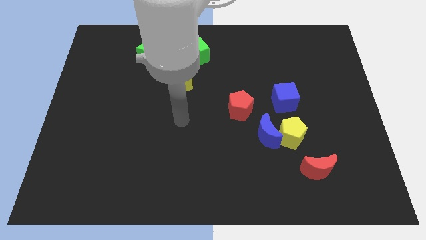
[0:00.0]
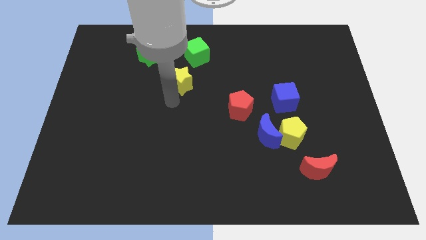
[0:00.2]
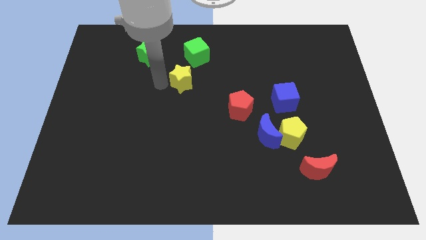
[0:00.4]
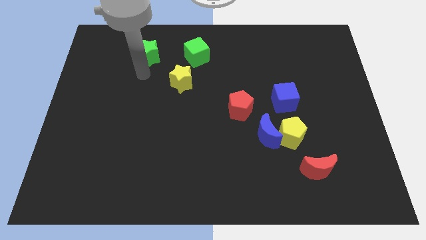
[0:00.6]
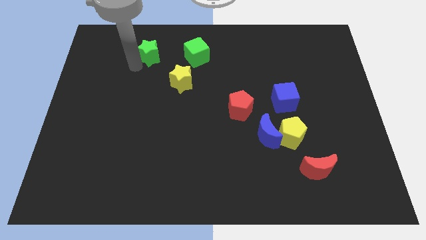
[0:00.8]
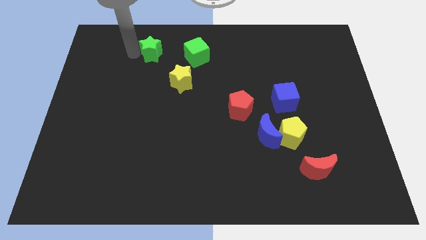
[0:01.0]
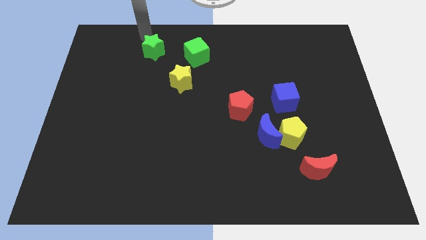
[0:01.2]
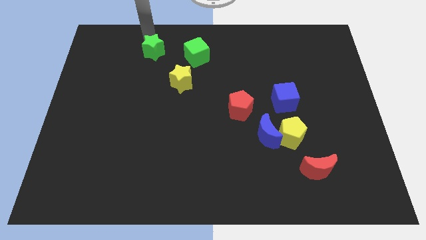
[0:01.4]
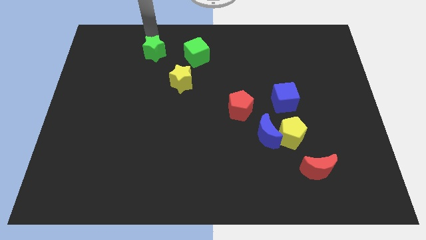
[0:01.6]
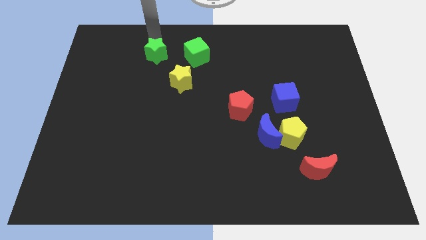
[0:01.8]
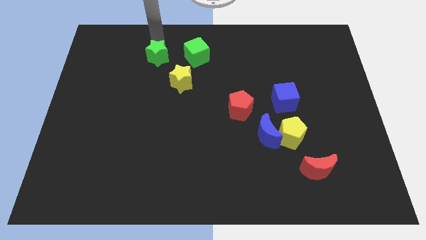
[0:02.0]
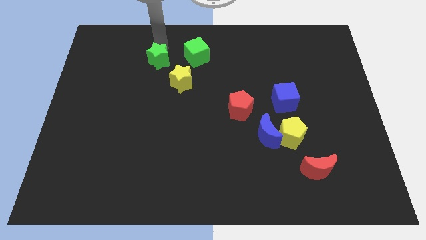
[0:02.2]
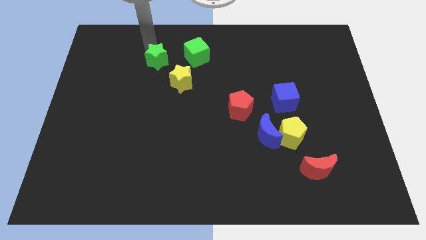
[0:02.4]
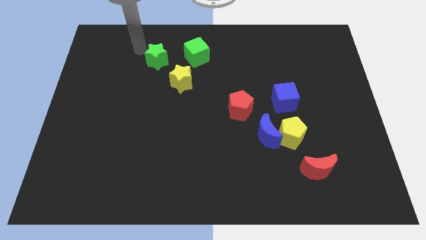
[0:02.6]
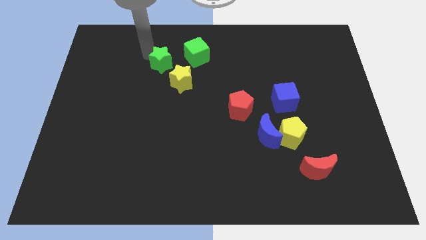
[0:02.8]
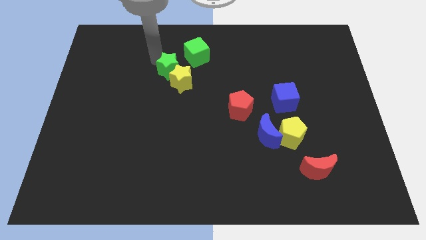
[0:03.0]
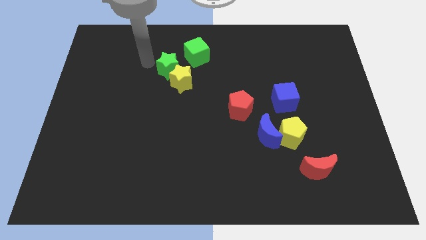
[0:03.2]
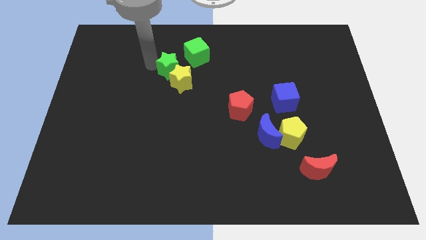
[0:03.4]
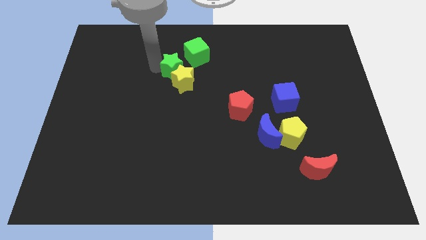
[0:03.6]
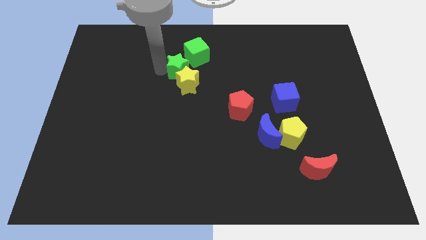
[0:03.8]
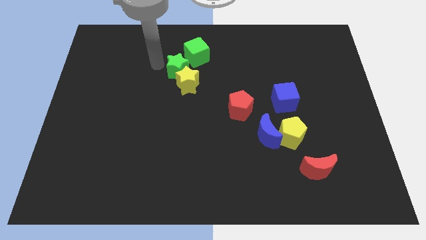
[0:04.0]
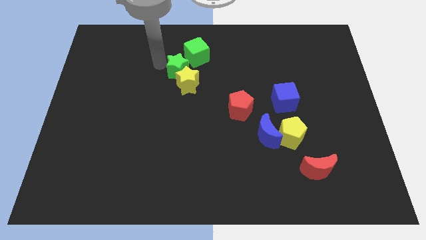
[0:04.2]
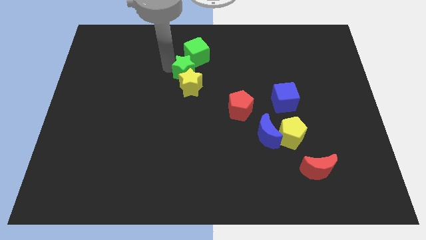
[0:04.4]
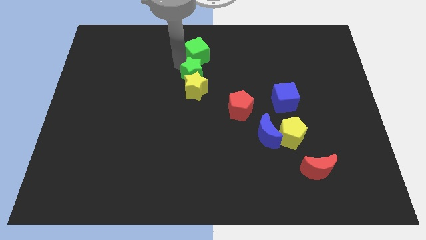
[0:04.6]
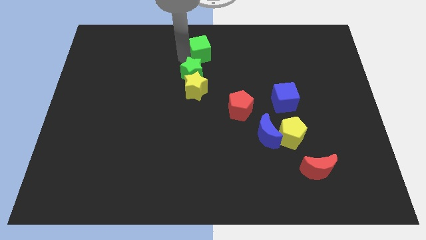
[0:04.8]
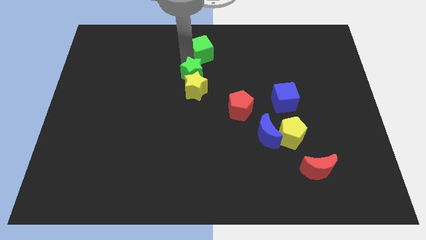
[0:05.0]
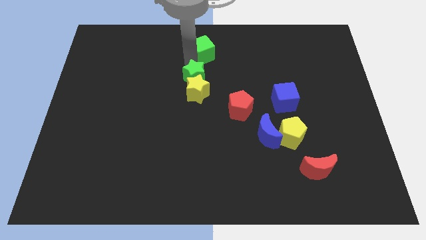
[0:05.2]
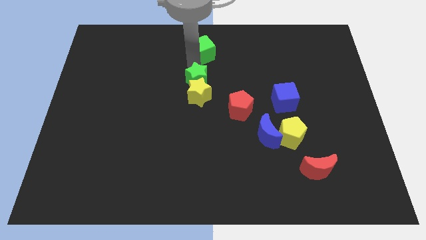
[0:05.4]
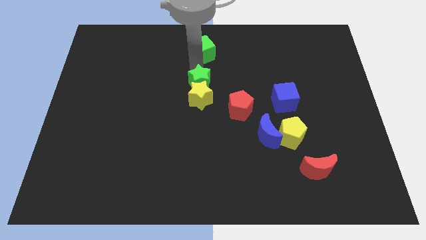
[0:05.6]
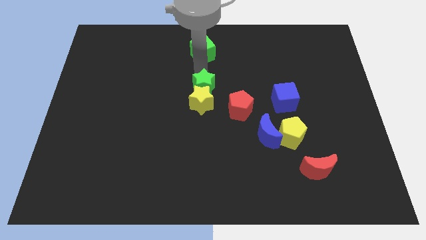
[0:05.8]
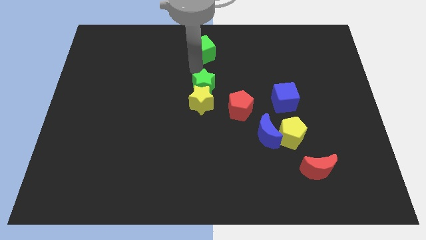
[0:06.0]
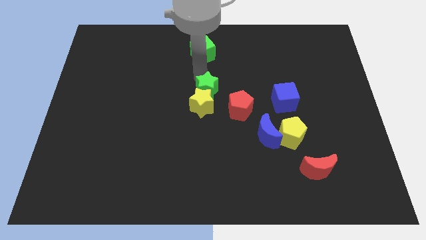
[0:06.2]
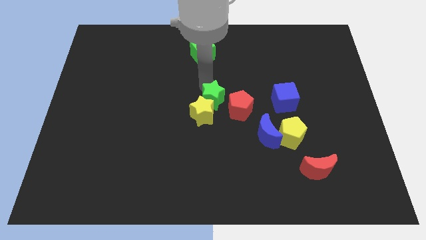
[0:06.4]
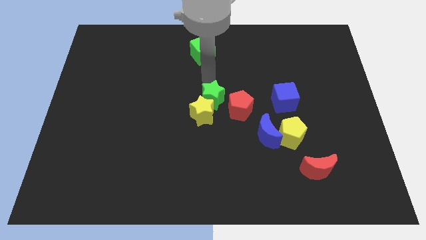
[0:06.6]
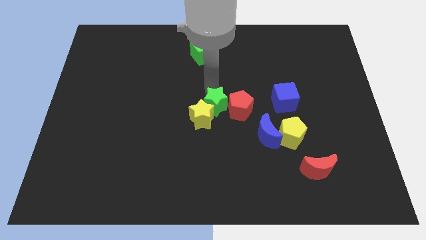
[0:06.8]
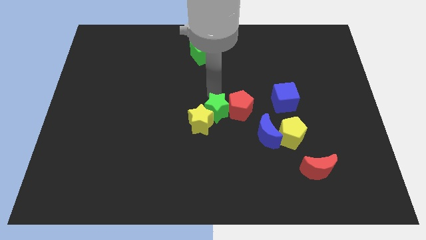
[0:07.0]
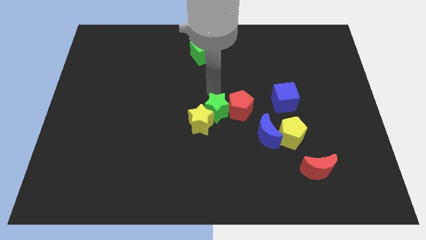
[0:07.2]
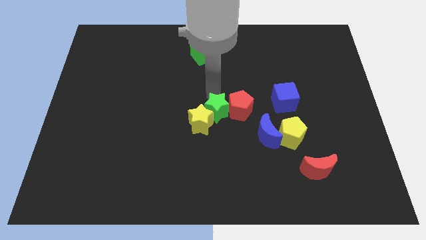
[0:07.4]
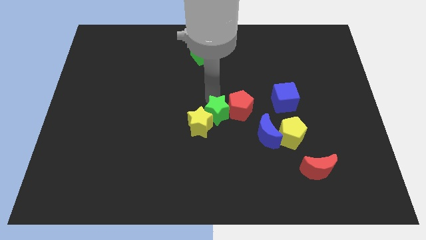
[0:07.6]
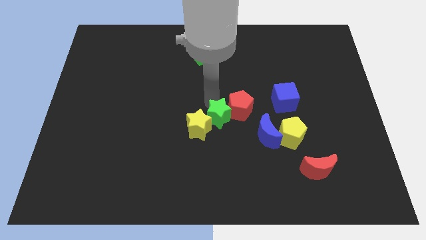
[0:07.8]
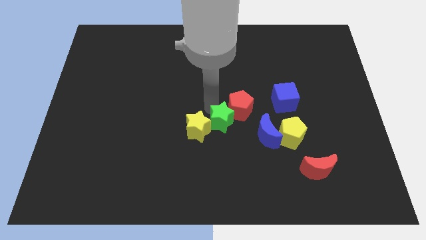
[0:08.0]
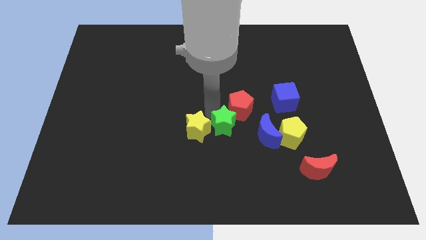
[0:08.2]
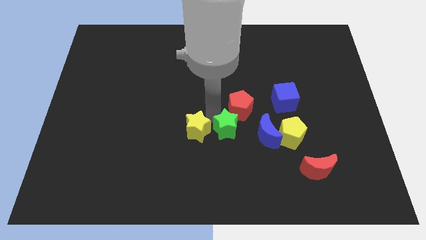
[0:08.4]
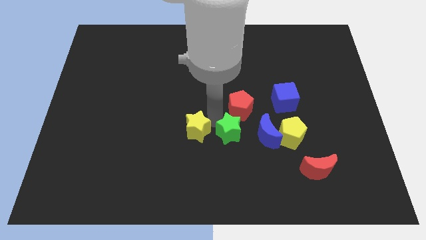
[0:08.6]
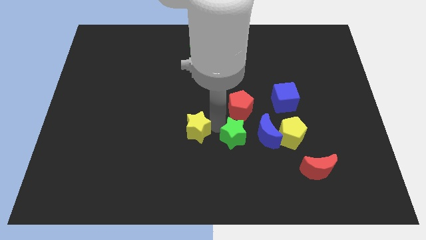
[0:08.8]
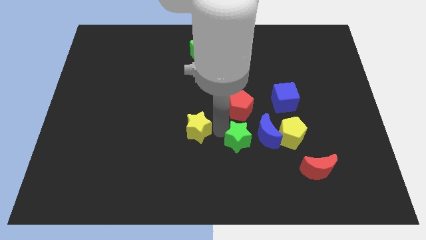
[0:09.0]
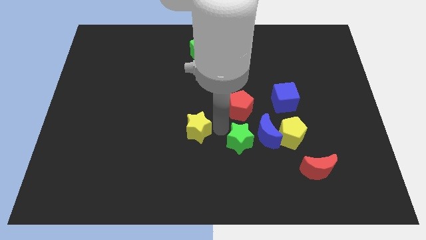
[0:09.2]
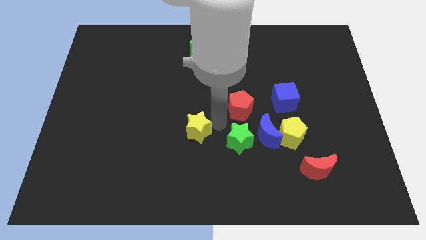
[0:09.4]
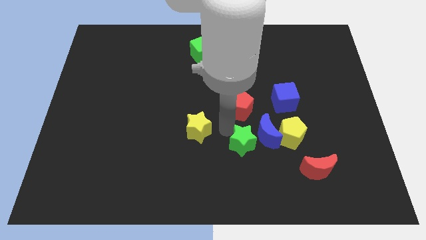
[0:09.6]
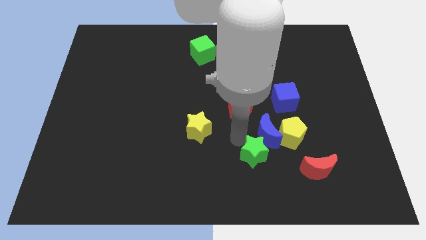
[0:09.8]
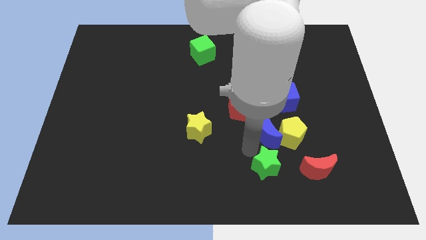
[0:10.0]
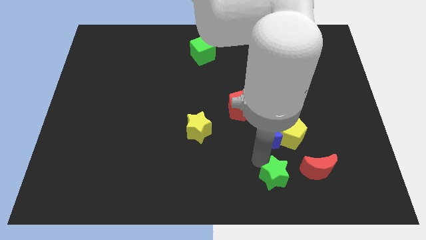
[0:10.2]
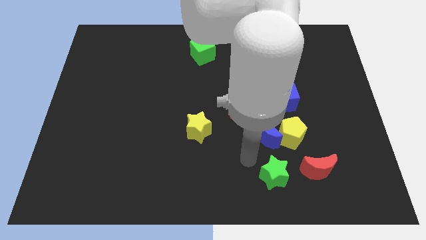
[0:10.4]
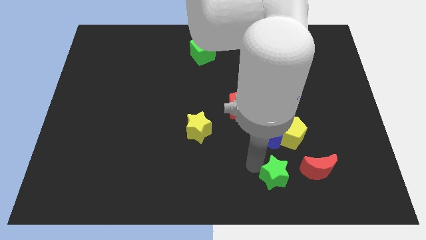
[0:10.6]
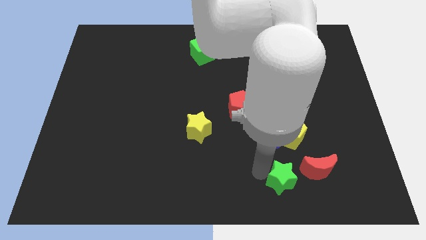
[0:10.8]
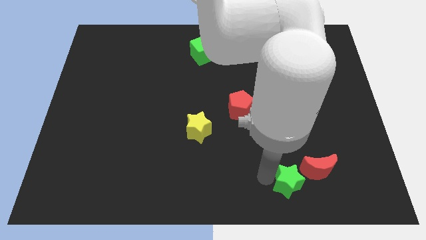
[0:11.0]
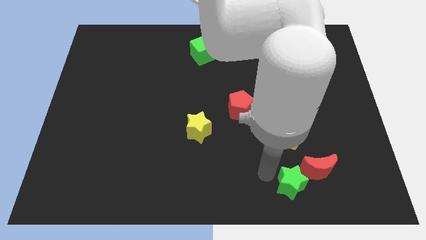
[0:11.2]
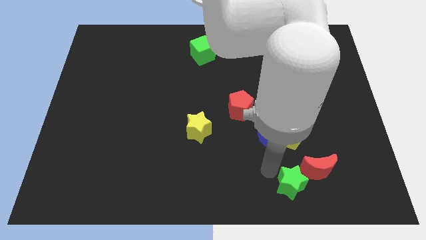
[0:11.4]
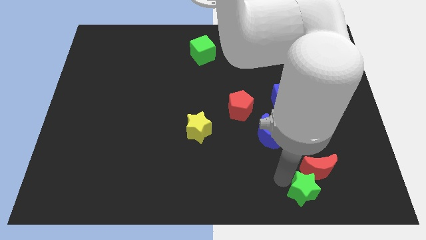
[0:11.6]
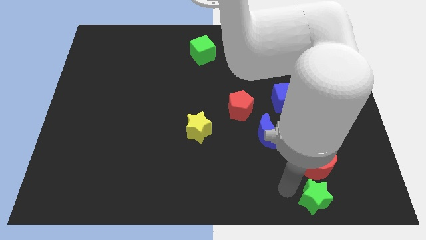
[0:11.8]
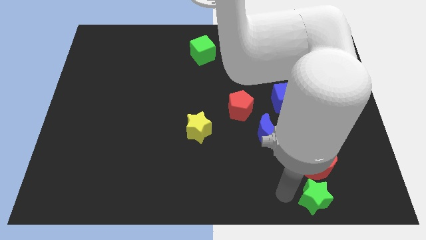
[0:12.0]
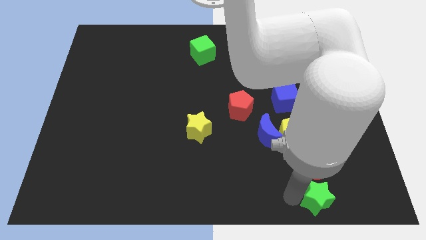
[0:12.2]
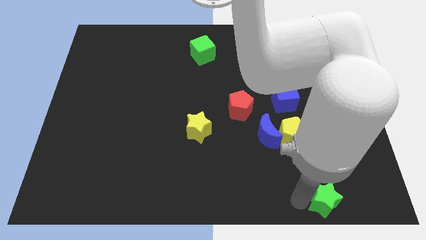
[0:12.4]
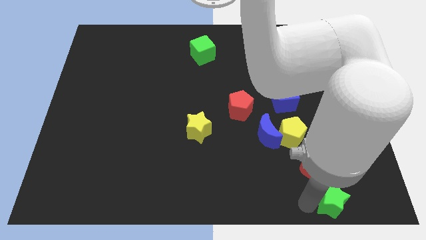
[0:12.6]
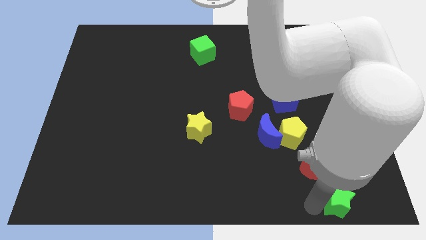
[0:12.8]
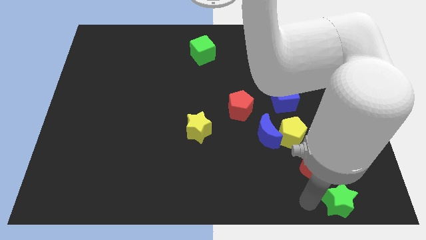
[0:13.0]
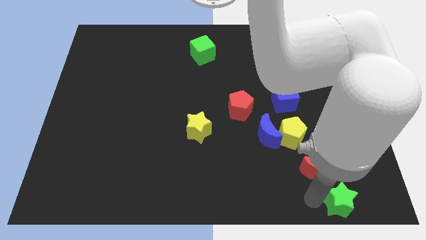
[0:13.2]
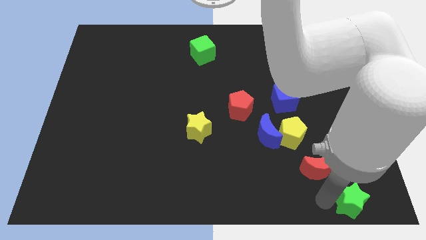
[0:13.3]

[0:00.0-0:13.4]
slide the green star to the lower right corner

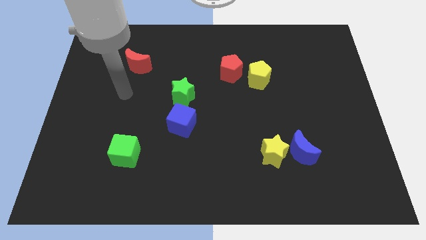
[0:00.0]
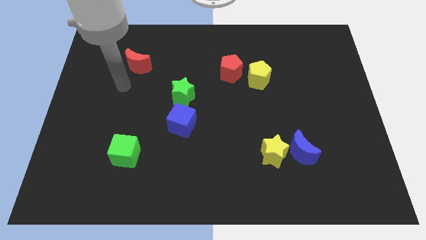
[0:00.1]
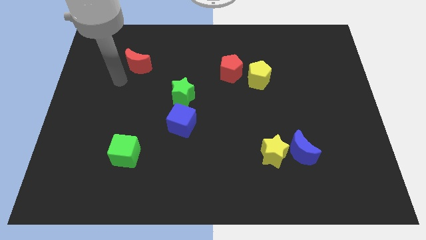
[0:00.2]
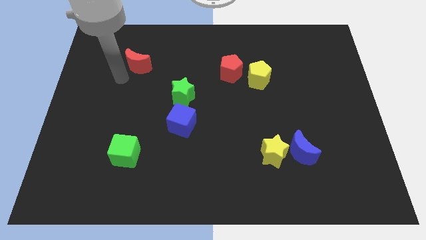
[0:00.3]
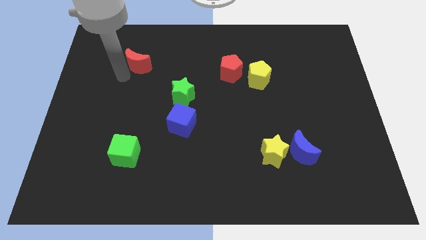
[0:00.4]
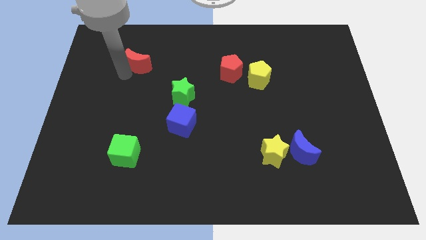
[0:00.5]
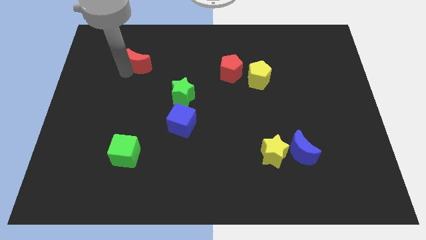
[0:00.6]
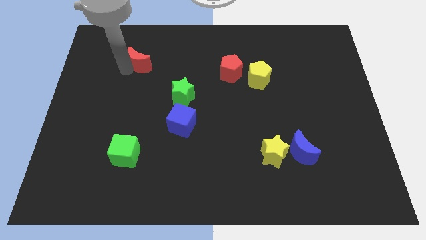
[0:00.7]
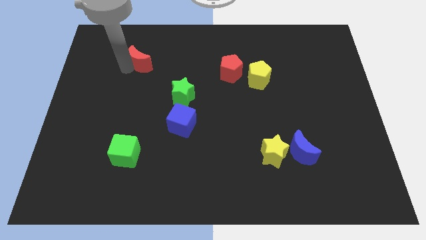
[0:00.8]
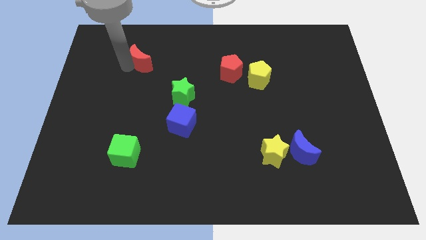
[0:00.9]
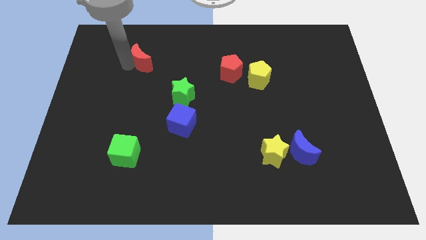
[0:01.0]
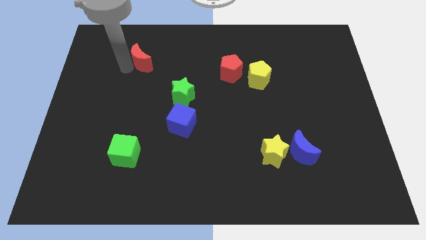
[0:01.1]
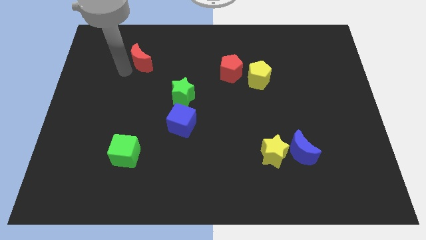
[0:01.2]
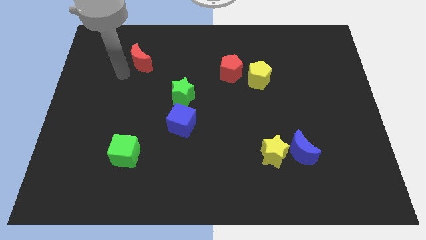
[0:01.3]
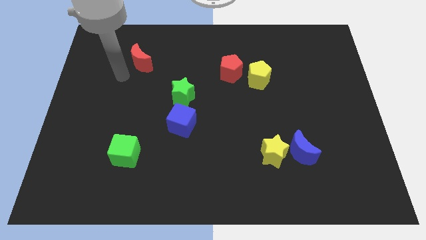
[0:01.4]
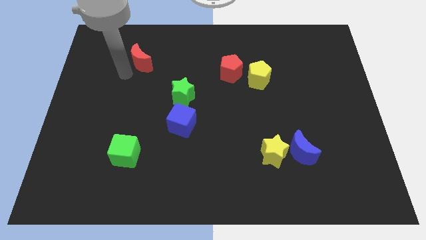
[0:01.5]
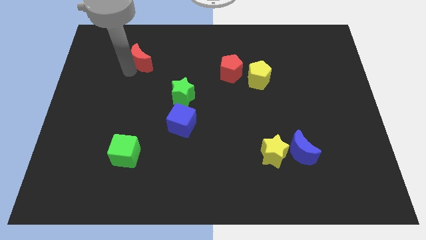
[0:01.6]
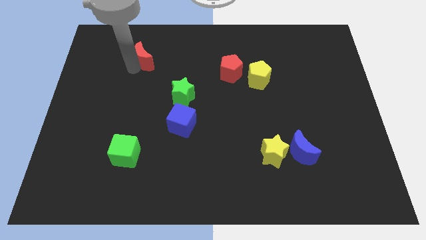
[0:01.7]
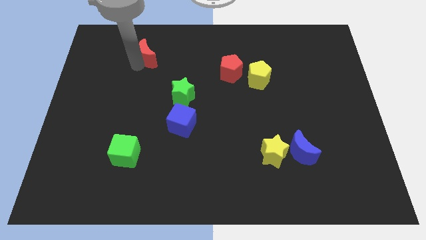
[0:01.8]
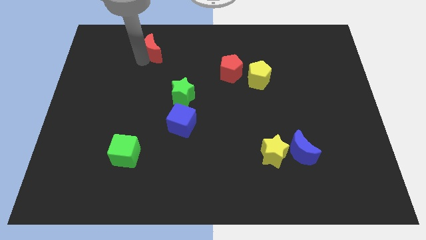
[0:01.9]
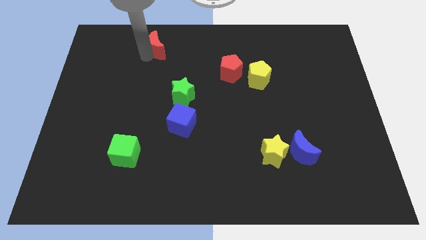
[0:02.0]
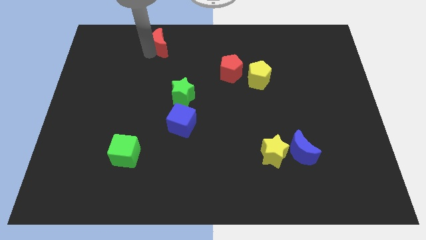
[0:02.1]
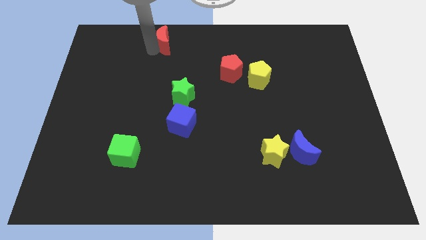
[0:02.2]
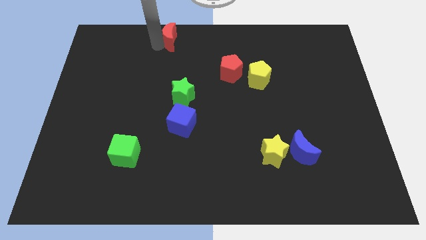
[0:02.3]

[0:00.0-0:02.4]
push the red moon to the towards your base
